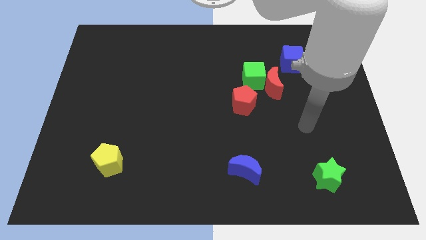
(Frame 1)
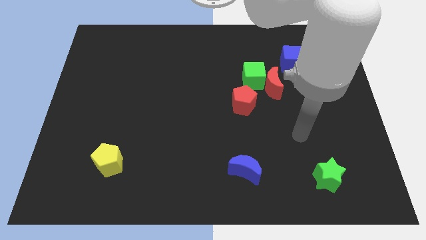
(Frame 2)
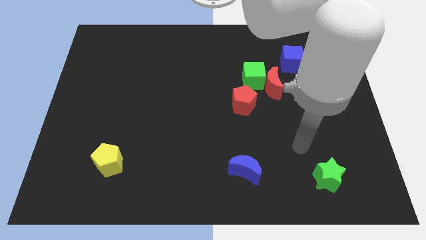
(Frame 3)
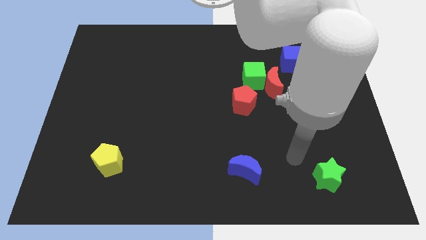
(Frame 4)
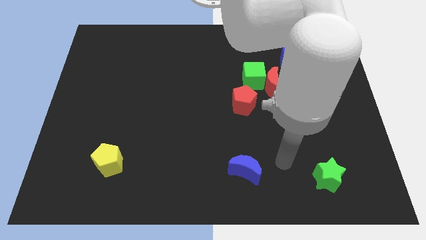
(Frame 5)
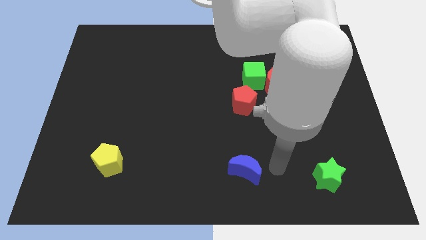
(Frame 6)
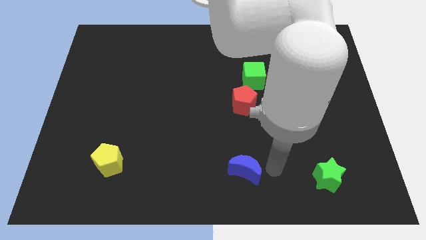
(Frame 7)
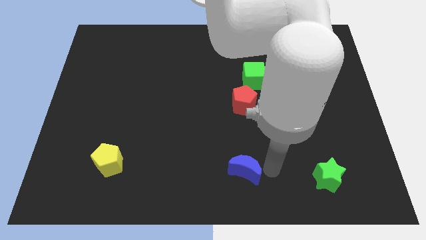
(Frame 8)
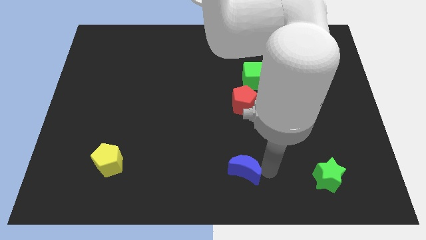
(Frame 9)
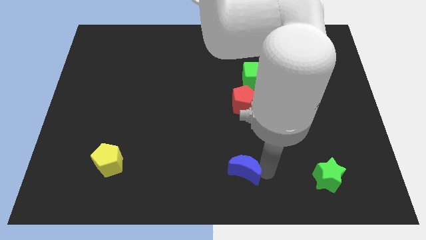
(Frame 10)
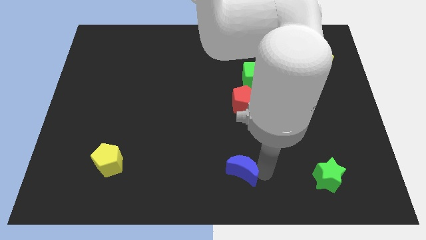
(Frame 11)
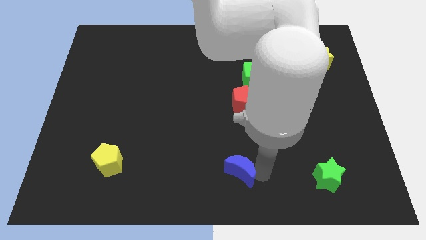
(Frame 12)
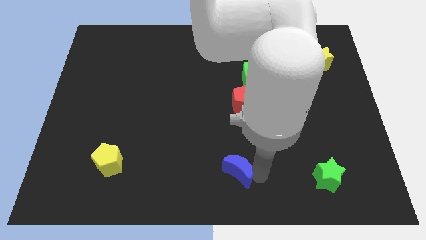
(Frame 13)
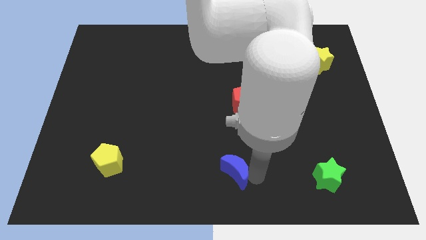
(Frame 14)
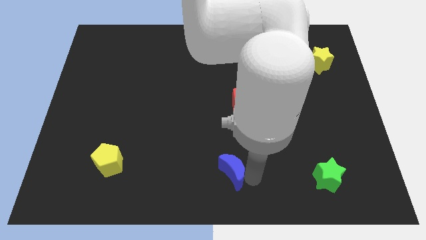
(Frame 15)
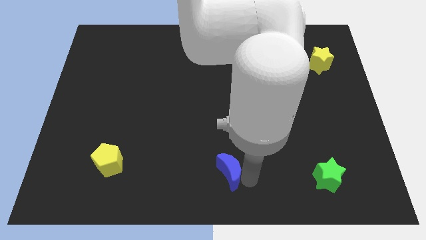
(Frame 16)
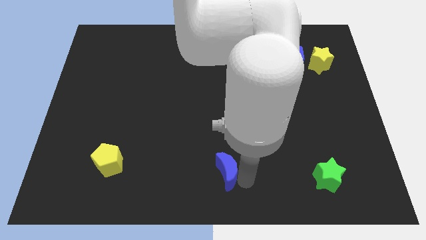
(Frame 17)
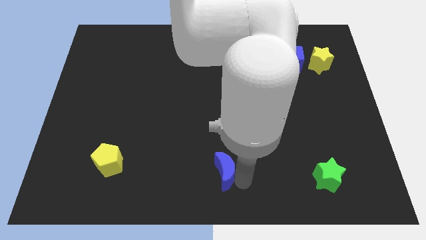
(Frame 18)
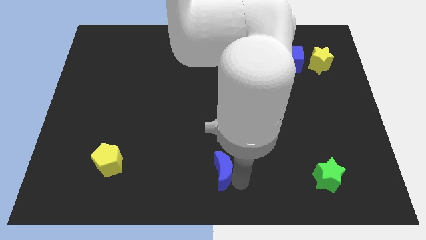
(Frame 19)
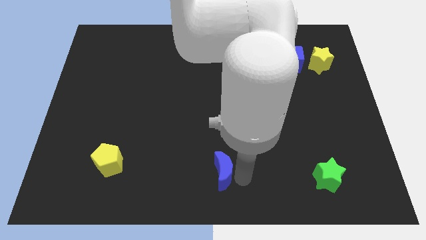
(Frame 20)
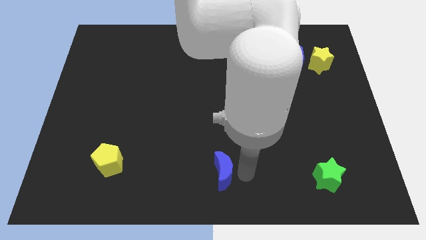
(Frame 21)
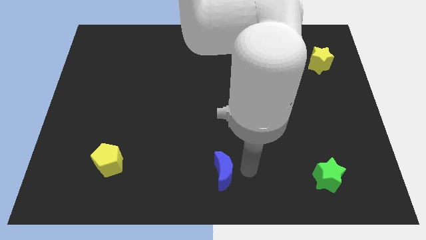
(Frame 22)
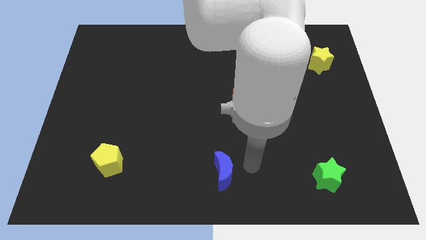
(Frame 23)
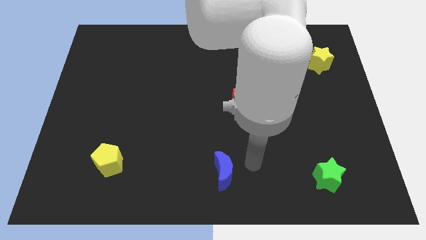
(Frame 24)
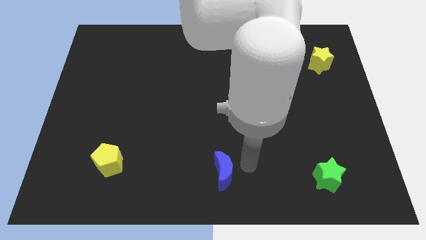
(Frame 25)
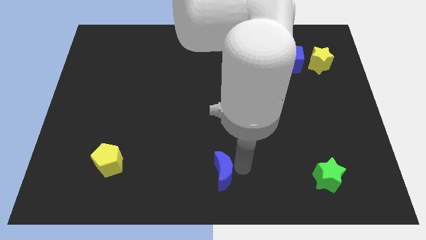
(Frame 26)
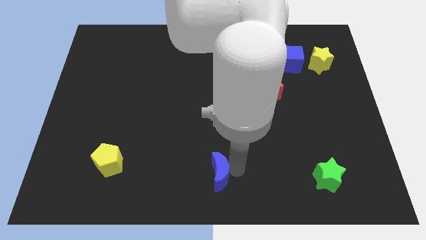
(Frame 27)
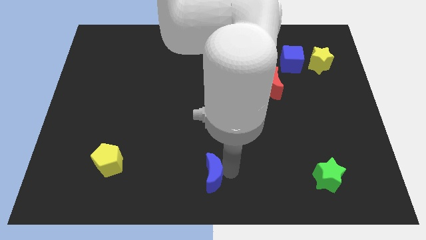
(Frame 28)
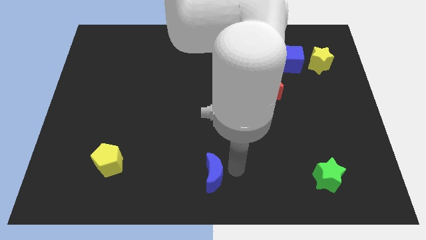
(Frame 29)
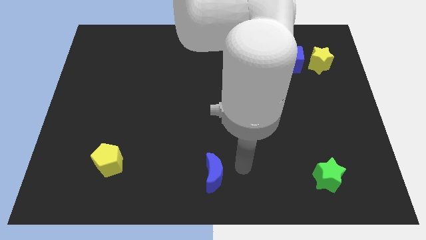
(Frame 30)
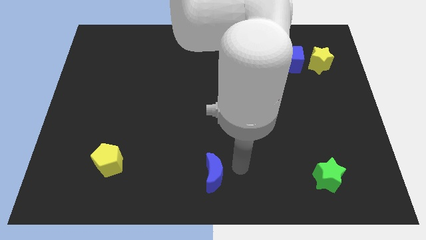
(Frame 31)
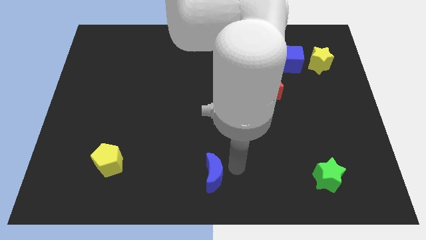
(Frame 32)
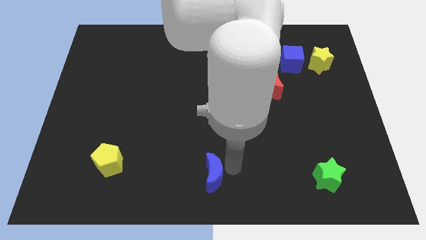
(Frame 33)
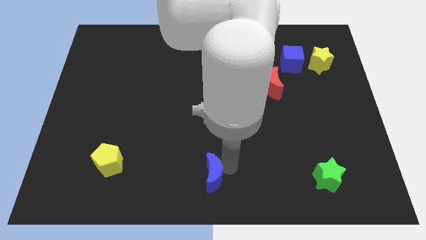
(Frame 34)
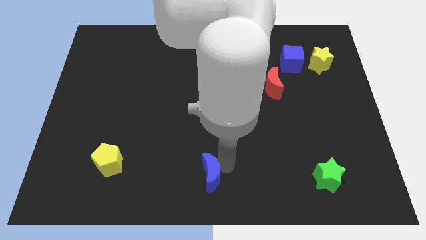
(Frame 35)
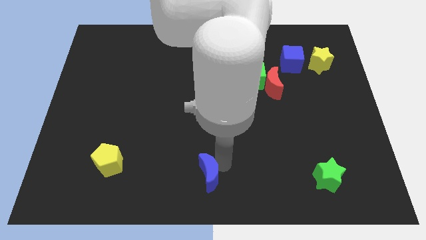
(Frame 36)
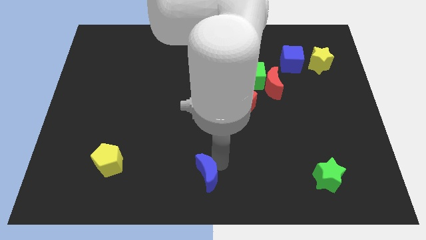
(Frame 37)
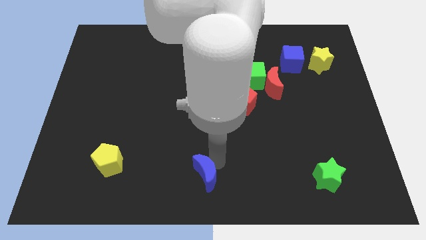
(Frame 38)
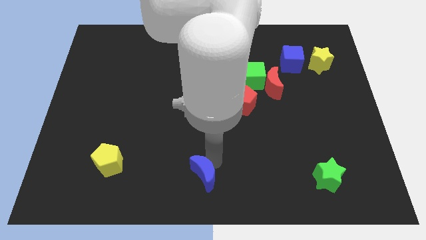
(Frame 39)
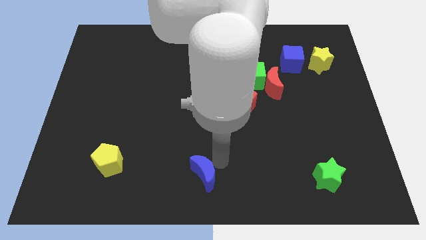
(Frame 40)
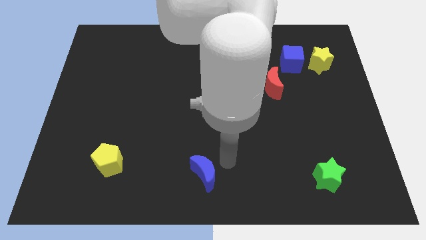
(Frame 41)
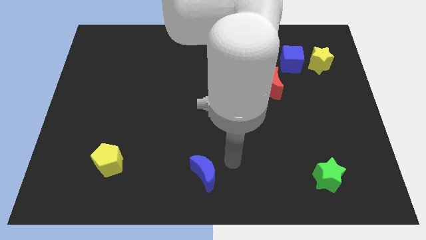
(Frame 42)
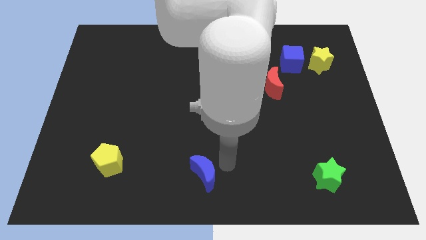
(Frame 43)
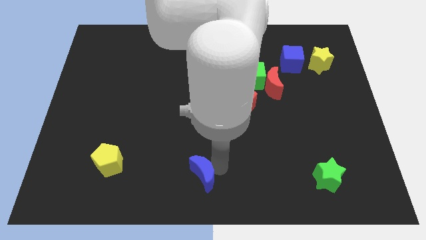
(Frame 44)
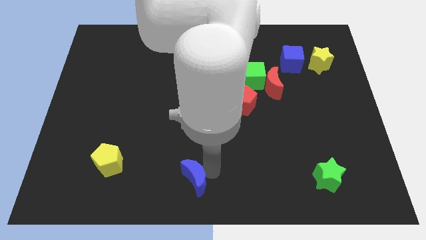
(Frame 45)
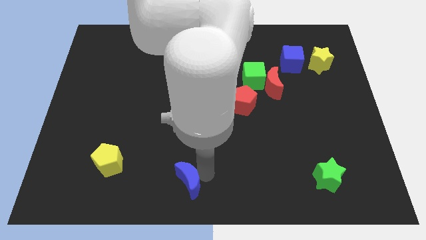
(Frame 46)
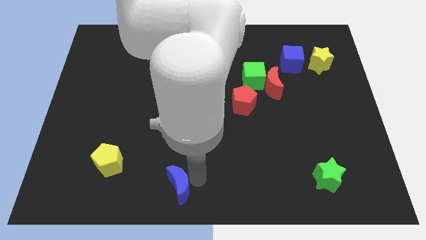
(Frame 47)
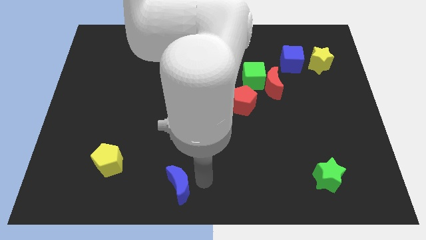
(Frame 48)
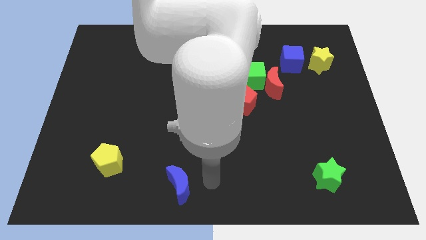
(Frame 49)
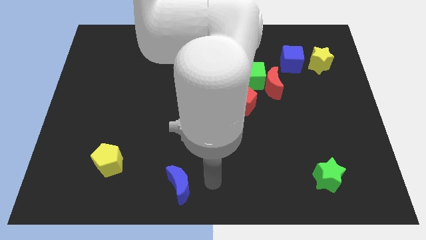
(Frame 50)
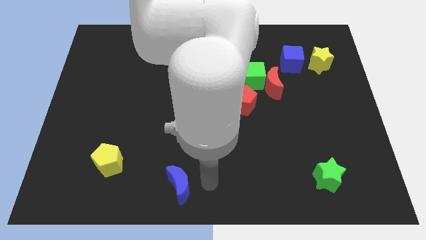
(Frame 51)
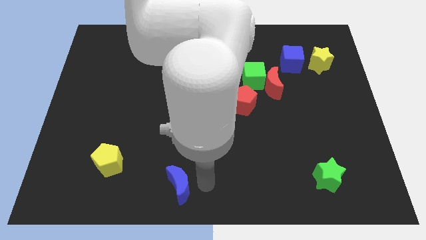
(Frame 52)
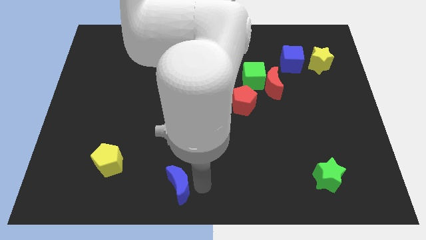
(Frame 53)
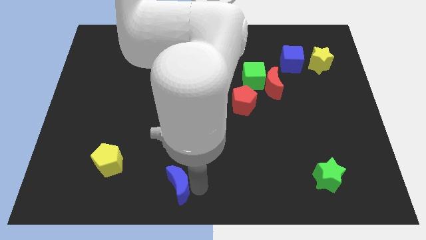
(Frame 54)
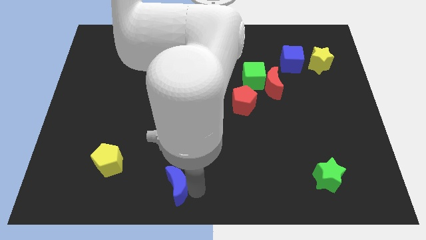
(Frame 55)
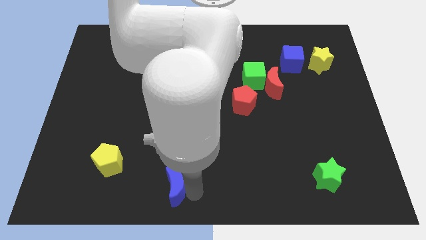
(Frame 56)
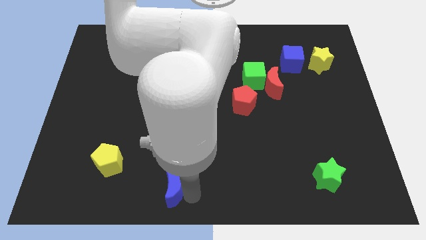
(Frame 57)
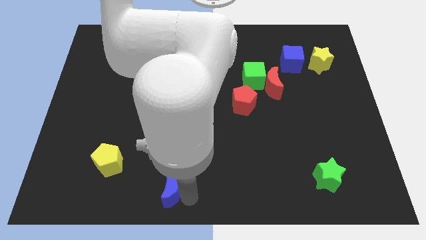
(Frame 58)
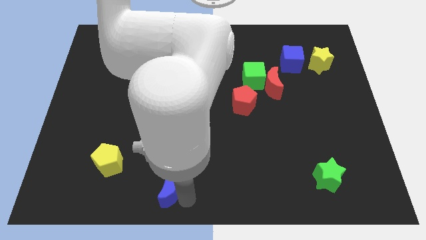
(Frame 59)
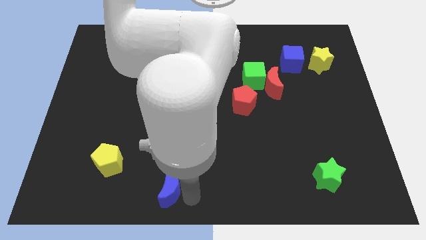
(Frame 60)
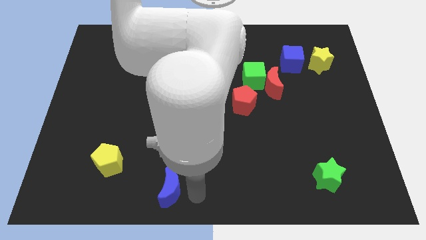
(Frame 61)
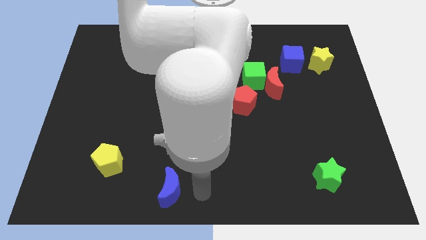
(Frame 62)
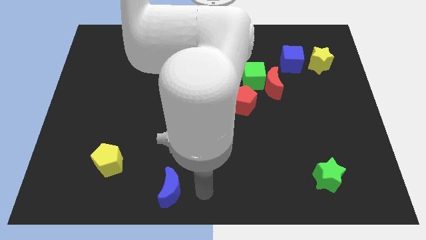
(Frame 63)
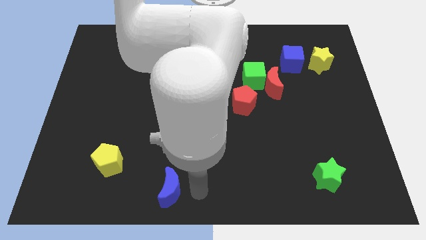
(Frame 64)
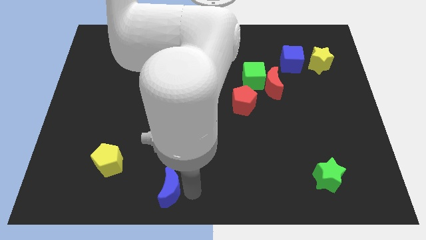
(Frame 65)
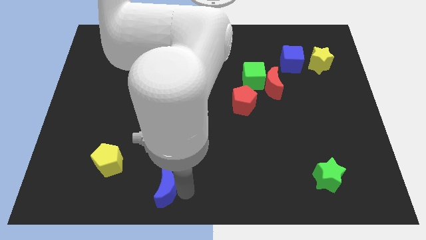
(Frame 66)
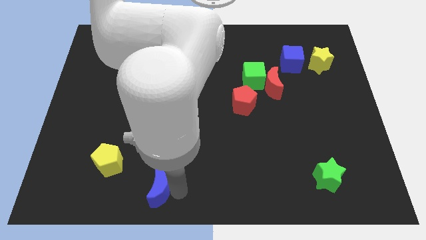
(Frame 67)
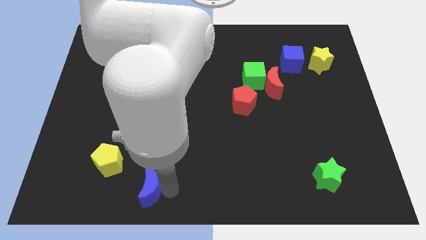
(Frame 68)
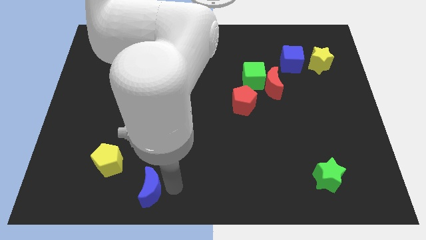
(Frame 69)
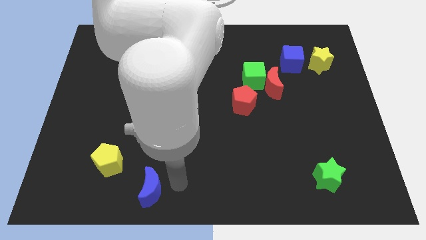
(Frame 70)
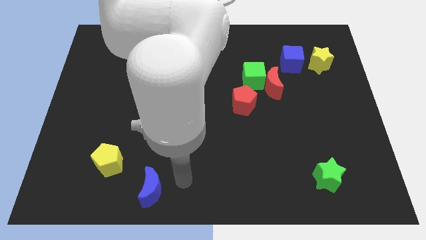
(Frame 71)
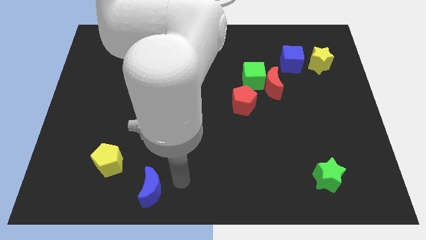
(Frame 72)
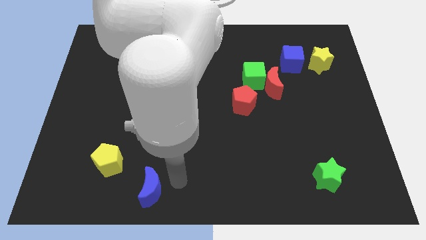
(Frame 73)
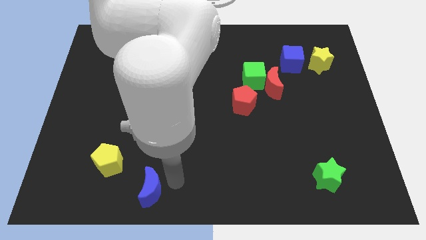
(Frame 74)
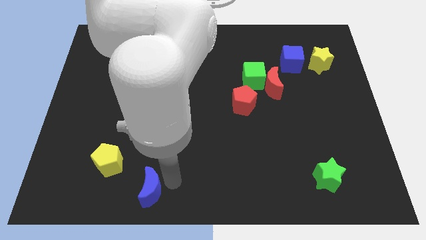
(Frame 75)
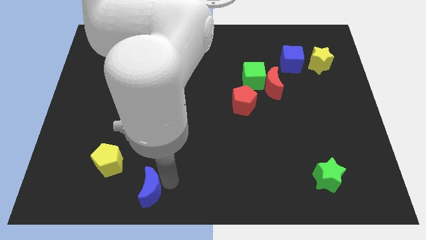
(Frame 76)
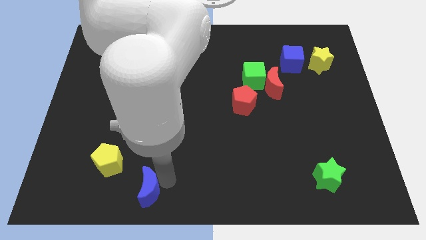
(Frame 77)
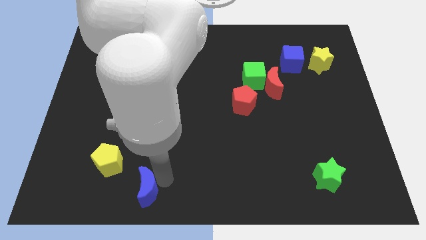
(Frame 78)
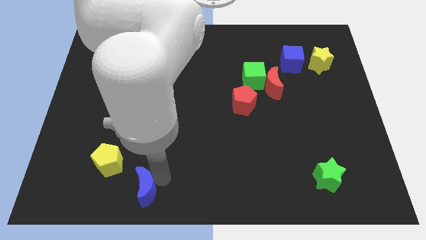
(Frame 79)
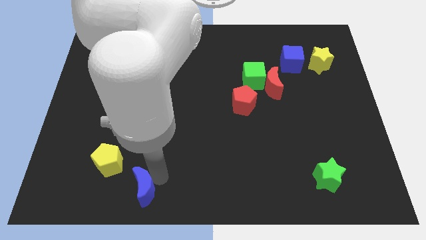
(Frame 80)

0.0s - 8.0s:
slide the blue moon to the left
